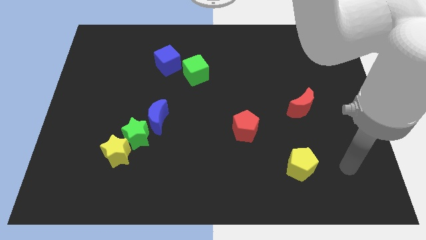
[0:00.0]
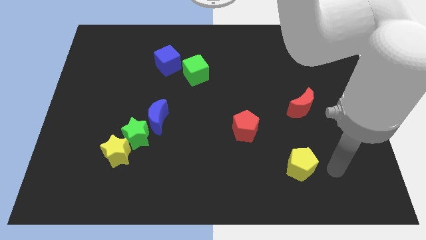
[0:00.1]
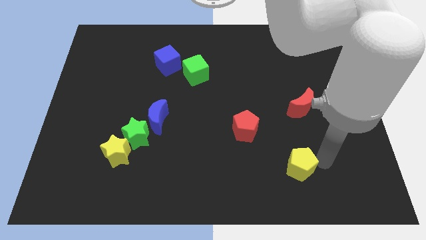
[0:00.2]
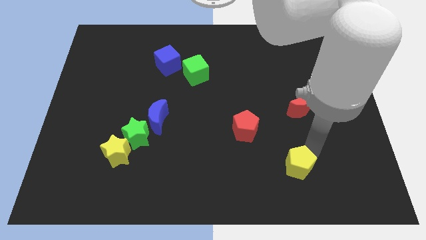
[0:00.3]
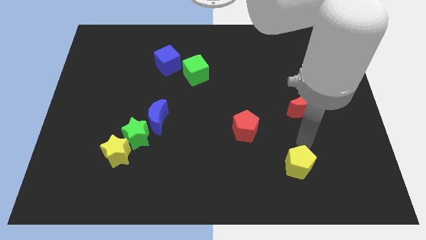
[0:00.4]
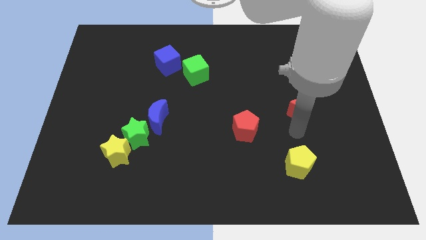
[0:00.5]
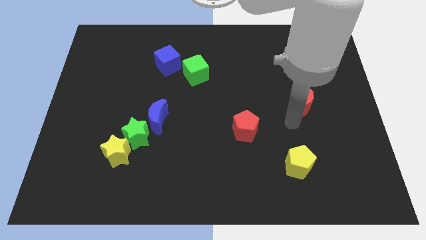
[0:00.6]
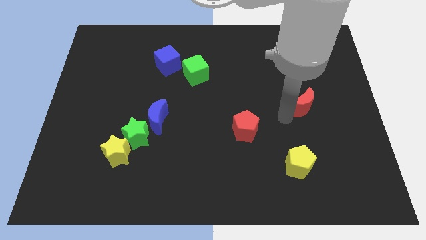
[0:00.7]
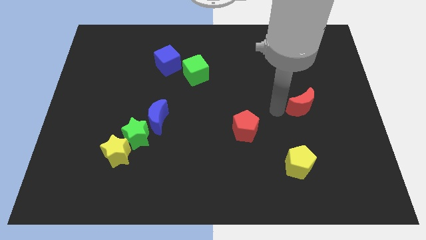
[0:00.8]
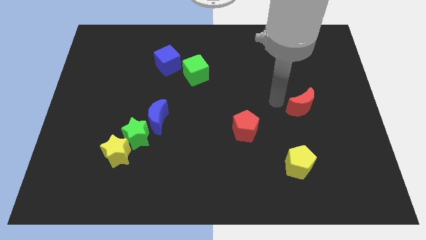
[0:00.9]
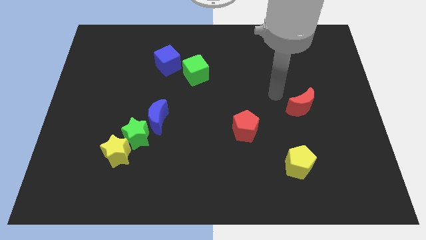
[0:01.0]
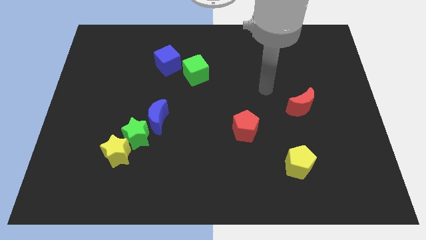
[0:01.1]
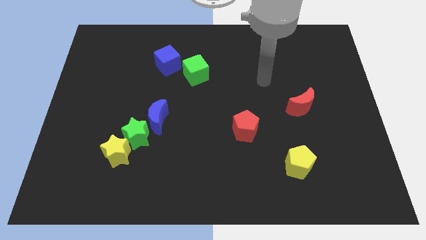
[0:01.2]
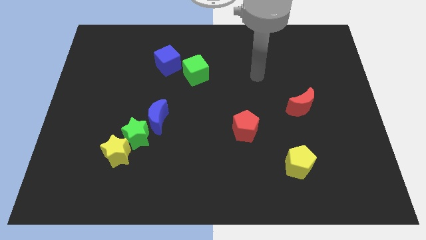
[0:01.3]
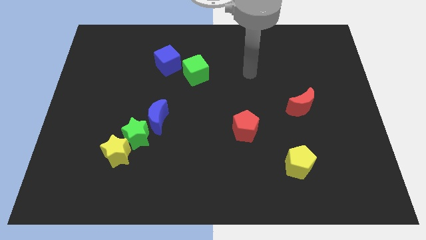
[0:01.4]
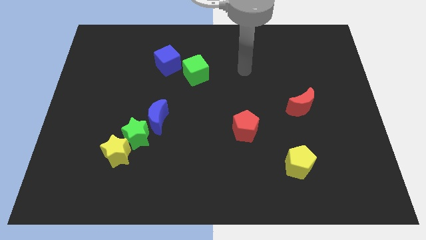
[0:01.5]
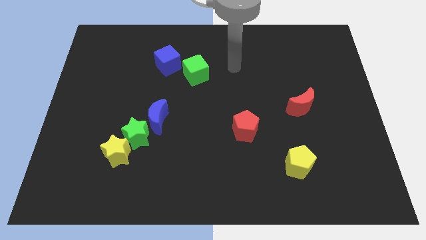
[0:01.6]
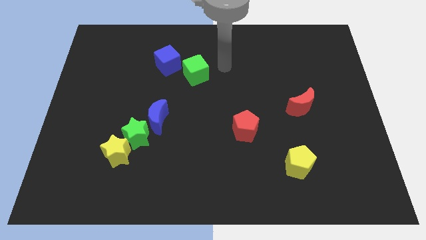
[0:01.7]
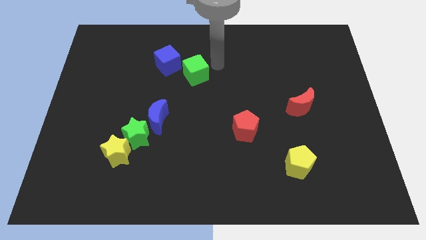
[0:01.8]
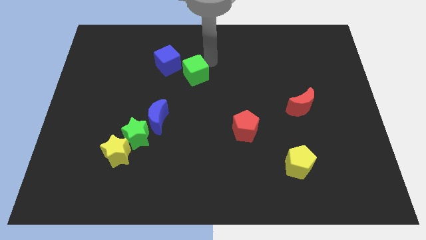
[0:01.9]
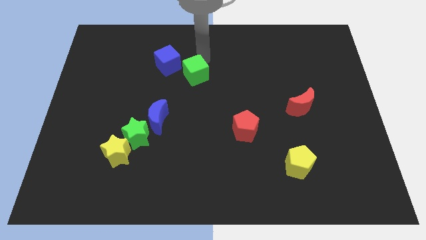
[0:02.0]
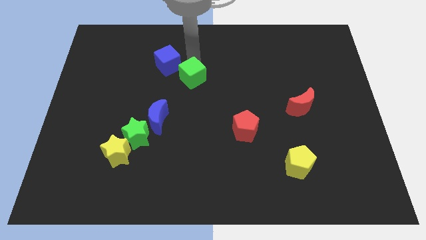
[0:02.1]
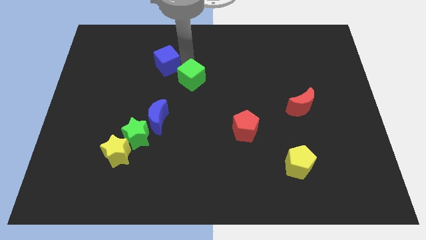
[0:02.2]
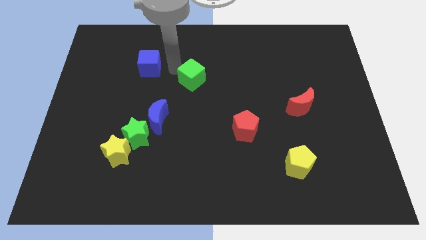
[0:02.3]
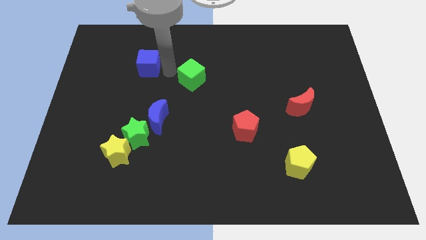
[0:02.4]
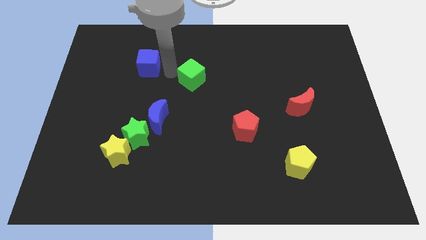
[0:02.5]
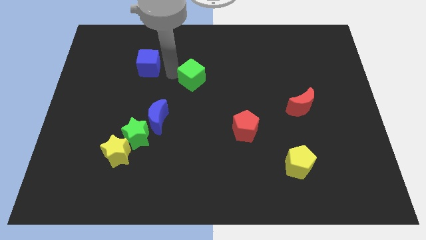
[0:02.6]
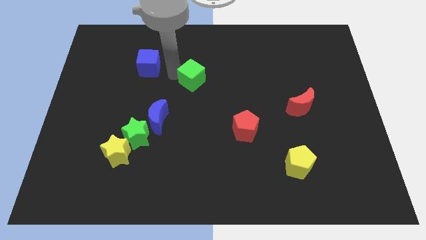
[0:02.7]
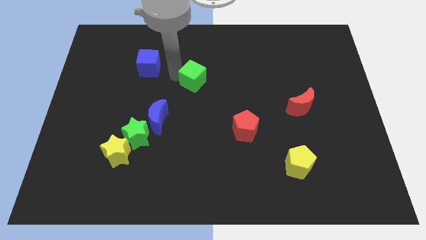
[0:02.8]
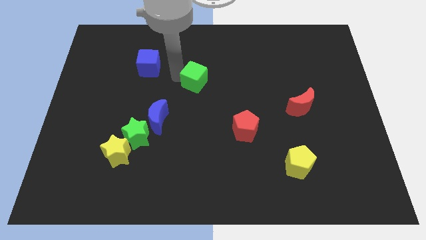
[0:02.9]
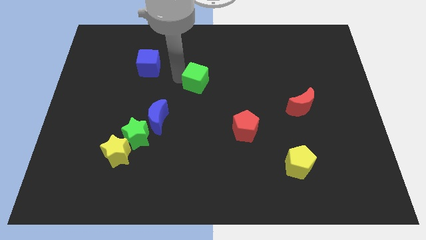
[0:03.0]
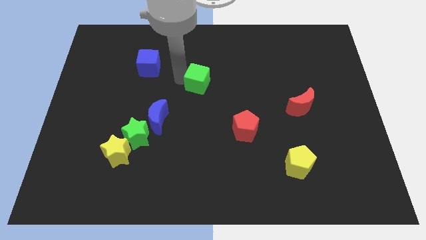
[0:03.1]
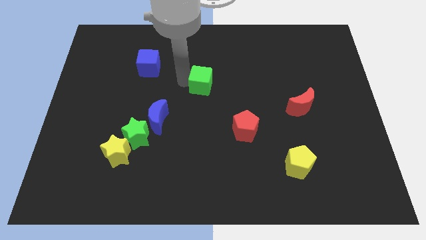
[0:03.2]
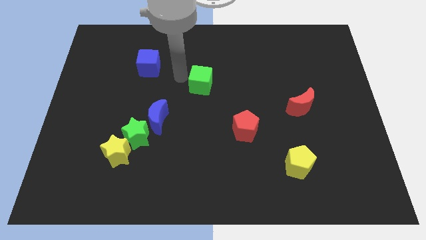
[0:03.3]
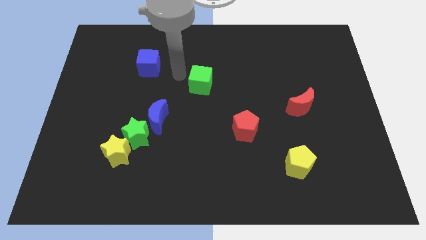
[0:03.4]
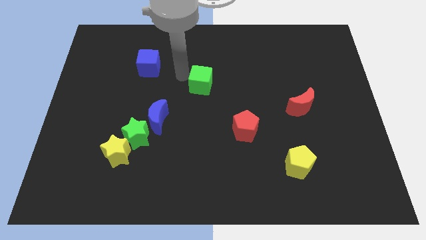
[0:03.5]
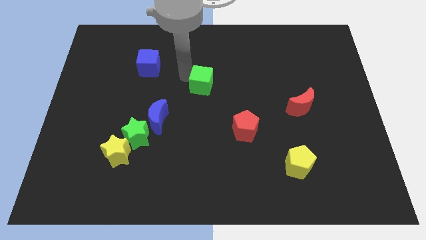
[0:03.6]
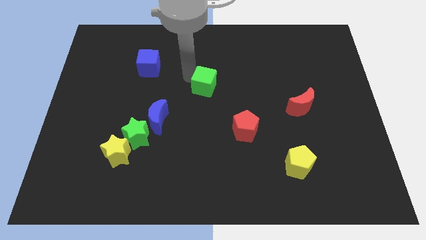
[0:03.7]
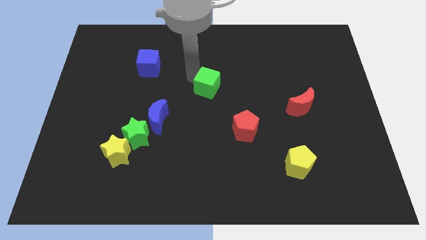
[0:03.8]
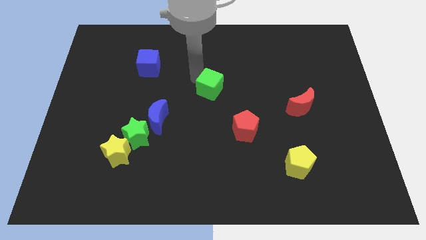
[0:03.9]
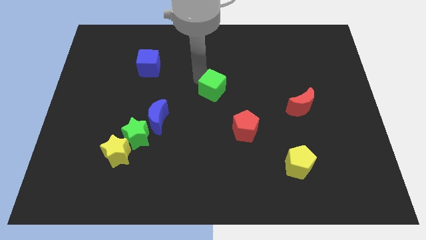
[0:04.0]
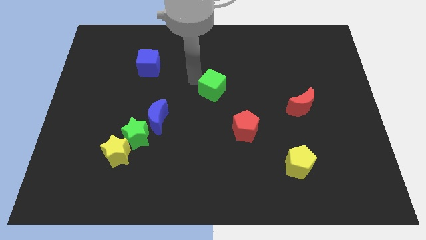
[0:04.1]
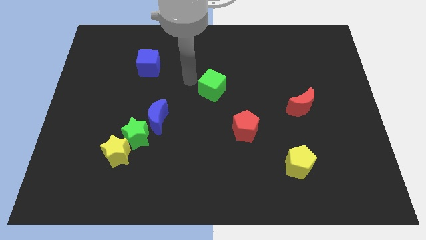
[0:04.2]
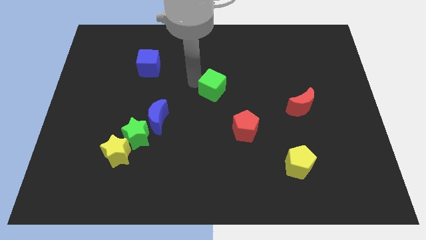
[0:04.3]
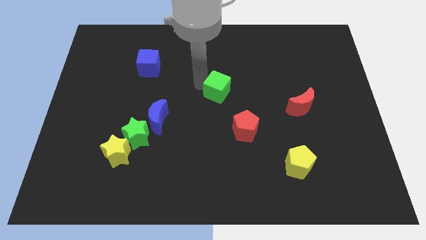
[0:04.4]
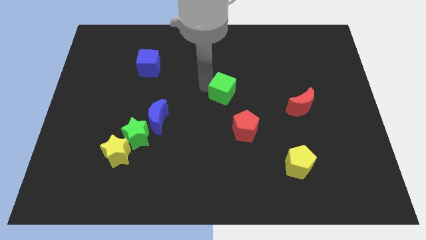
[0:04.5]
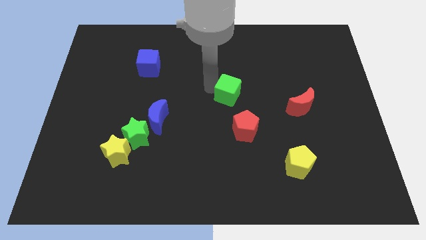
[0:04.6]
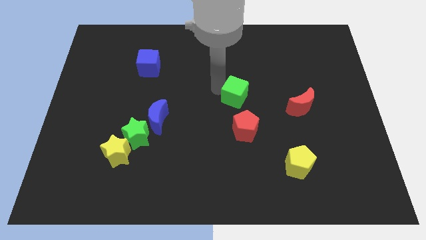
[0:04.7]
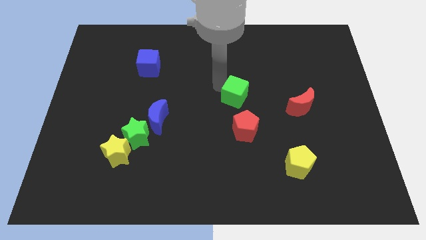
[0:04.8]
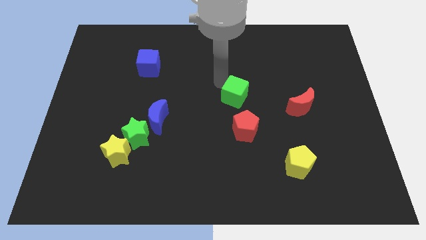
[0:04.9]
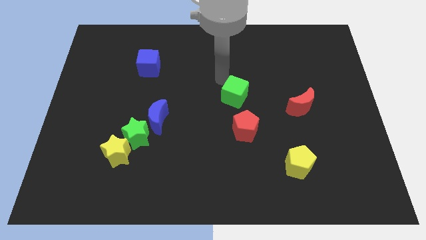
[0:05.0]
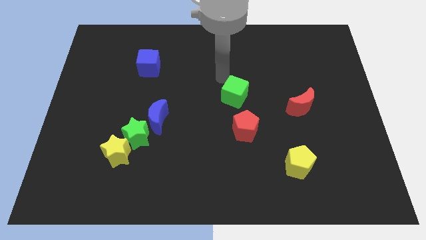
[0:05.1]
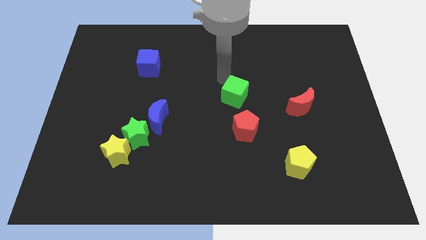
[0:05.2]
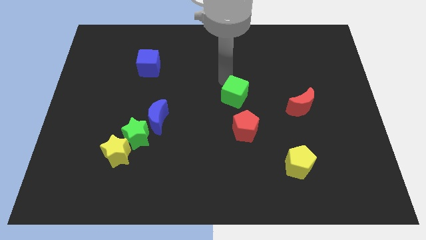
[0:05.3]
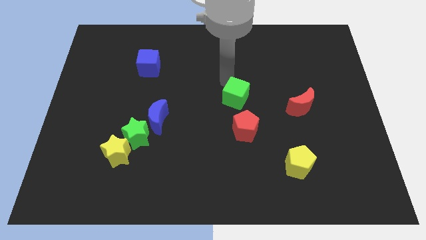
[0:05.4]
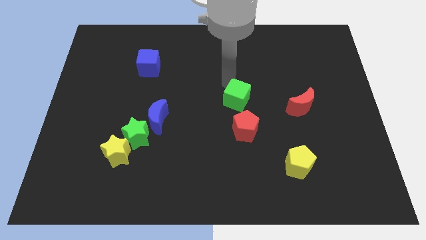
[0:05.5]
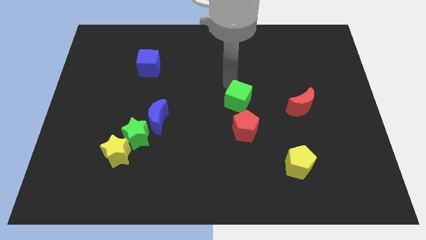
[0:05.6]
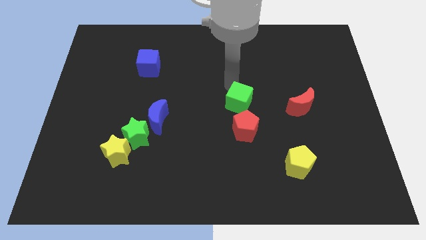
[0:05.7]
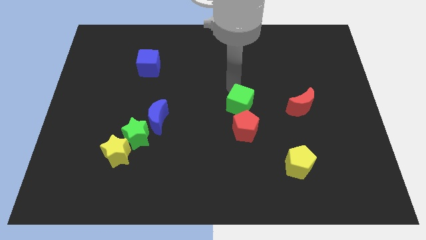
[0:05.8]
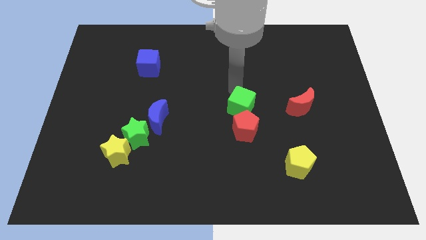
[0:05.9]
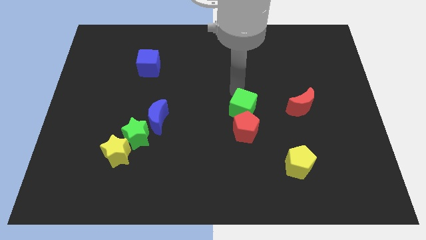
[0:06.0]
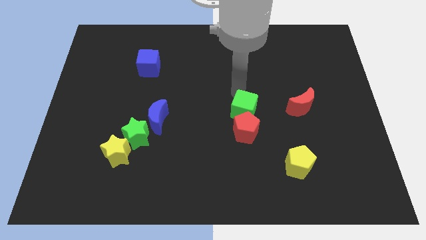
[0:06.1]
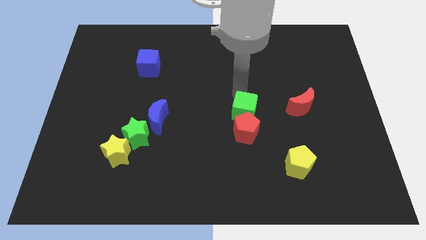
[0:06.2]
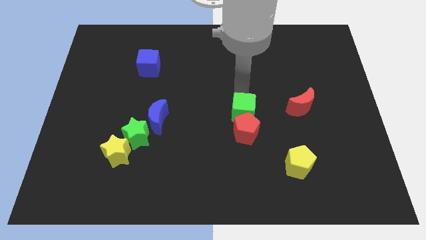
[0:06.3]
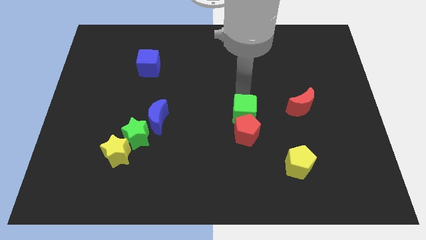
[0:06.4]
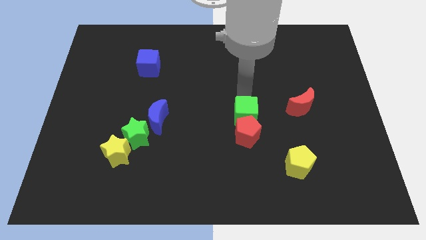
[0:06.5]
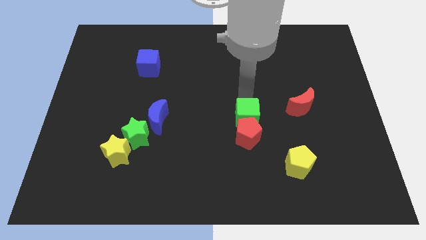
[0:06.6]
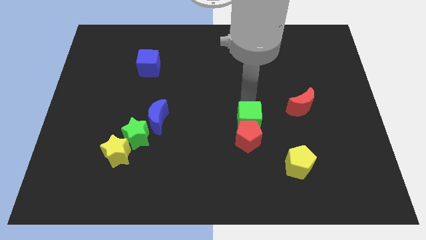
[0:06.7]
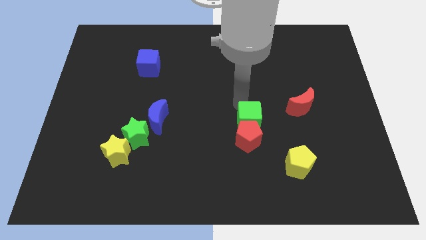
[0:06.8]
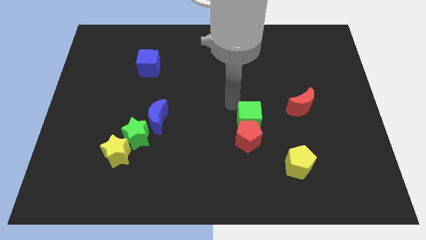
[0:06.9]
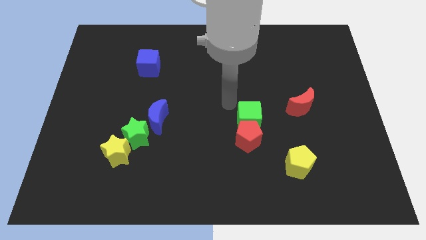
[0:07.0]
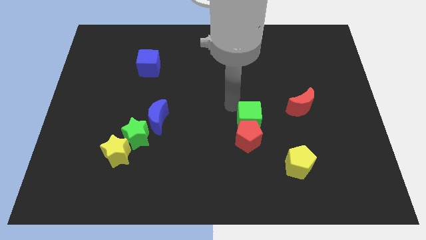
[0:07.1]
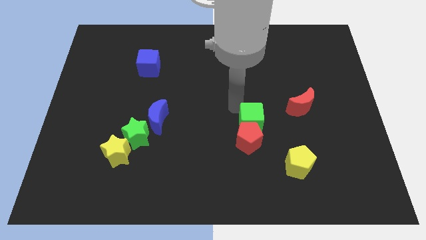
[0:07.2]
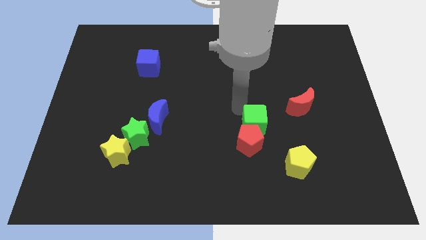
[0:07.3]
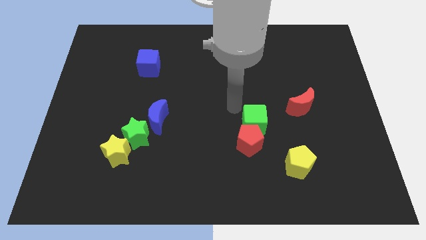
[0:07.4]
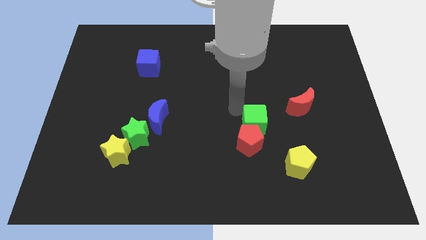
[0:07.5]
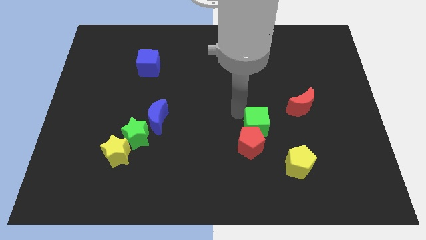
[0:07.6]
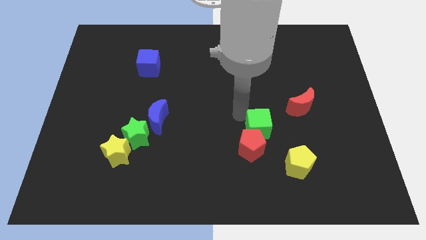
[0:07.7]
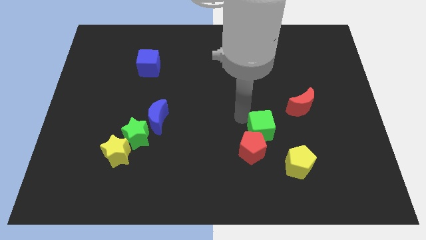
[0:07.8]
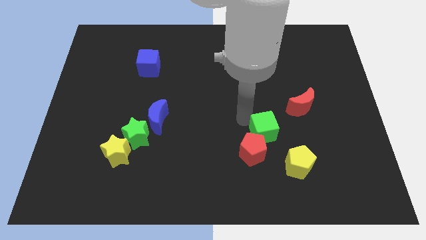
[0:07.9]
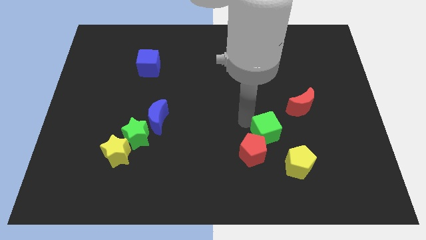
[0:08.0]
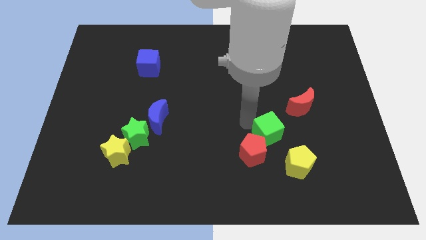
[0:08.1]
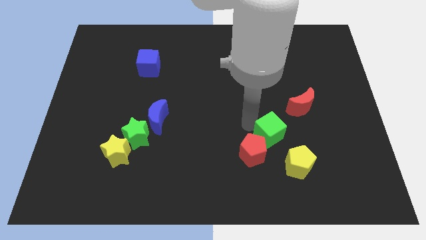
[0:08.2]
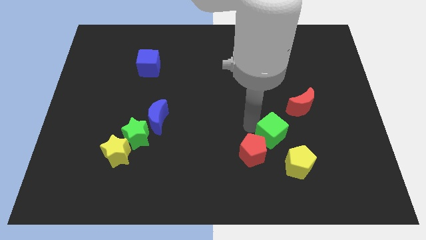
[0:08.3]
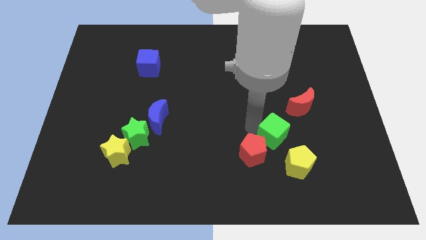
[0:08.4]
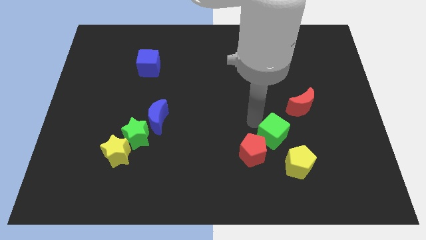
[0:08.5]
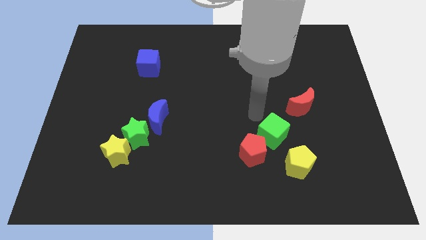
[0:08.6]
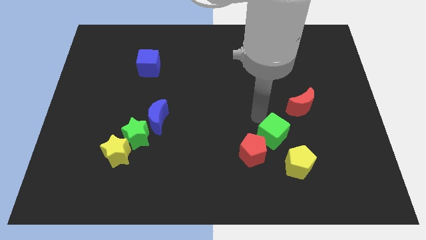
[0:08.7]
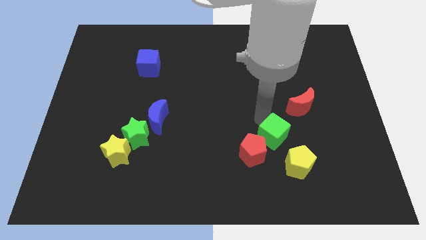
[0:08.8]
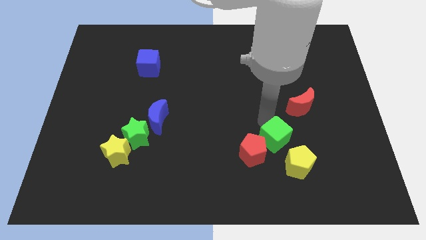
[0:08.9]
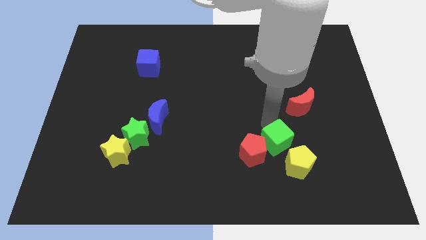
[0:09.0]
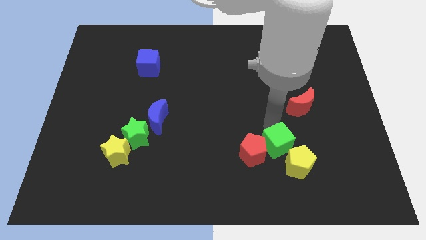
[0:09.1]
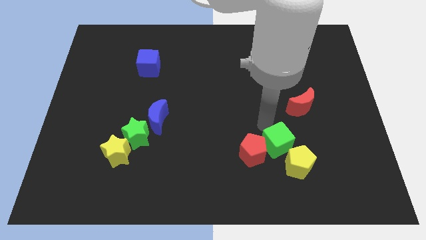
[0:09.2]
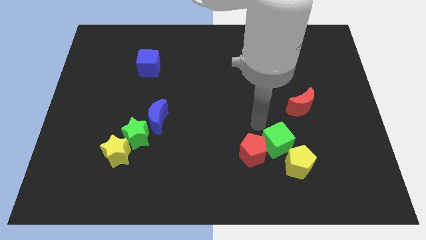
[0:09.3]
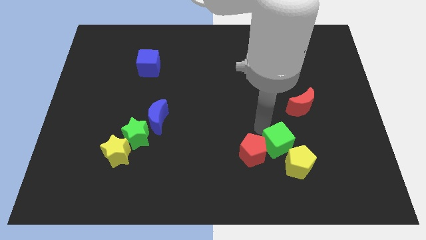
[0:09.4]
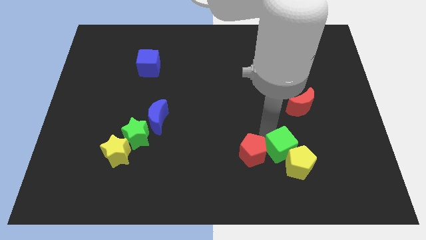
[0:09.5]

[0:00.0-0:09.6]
slide the green cube to the yellow pentagon
